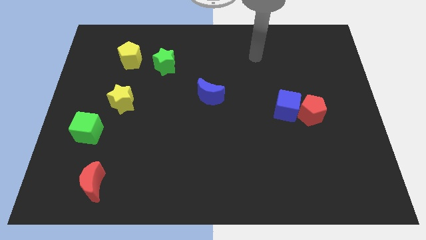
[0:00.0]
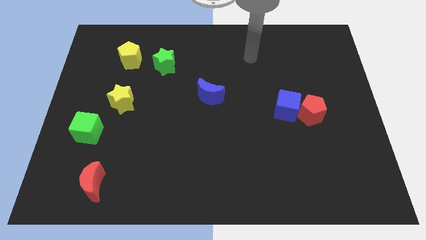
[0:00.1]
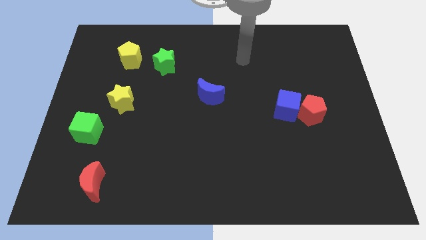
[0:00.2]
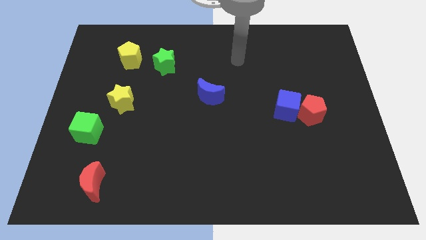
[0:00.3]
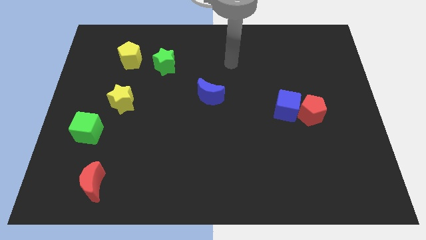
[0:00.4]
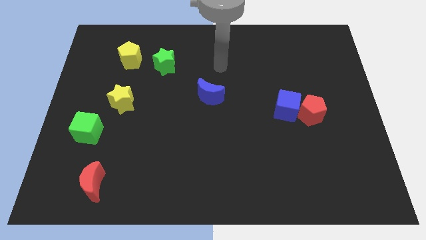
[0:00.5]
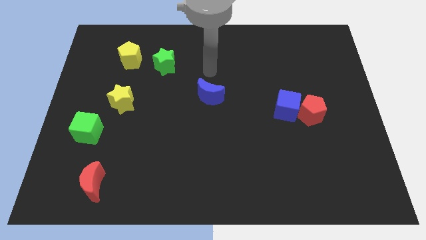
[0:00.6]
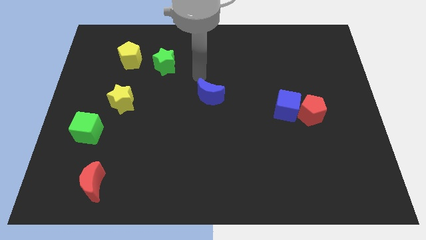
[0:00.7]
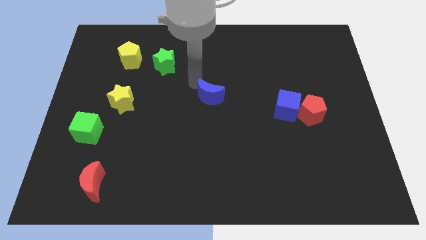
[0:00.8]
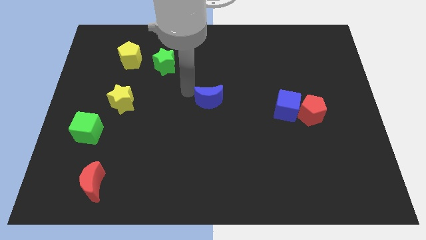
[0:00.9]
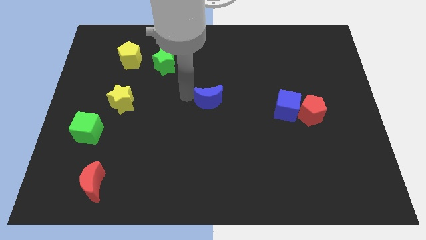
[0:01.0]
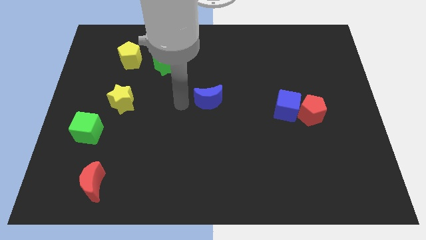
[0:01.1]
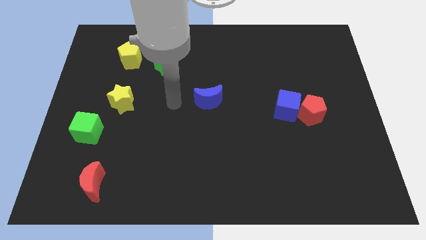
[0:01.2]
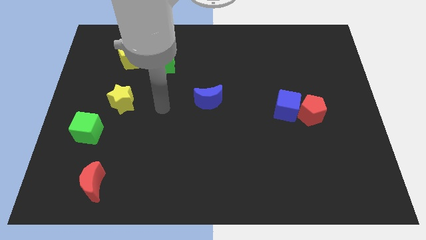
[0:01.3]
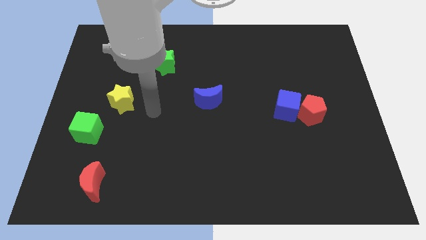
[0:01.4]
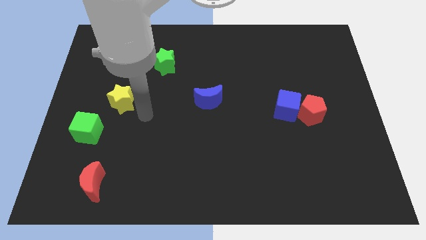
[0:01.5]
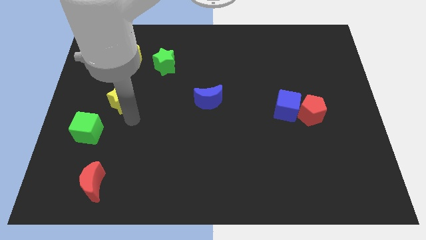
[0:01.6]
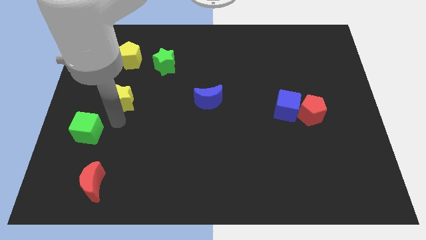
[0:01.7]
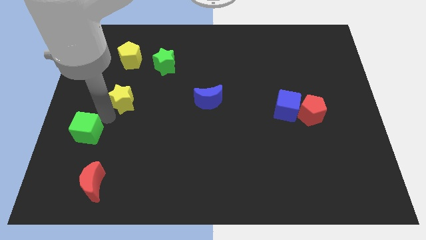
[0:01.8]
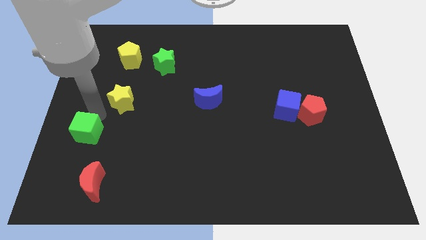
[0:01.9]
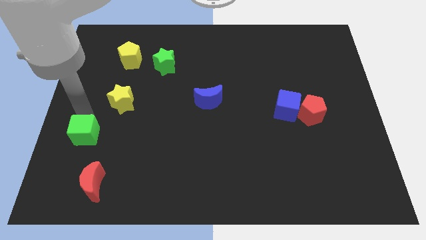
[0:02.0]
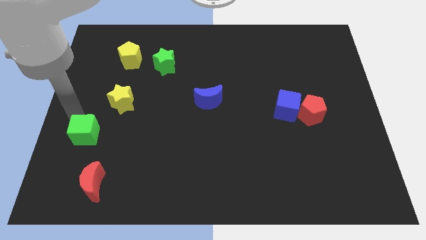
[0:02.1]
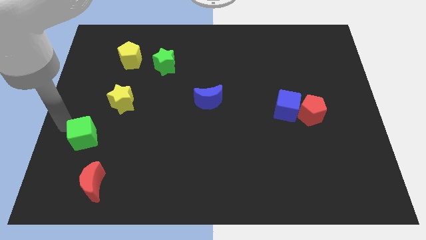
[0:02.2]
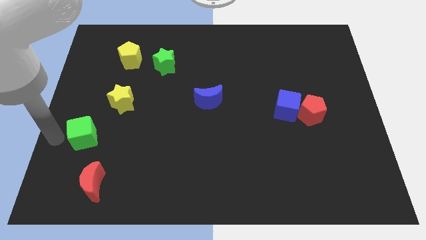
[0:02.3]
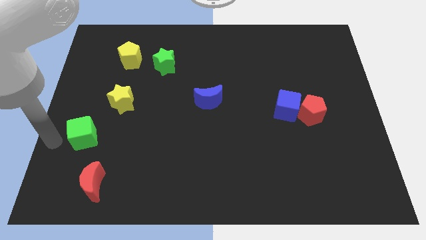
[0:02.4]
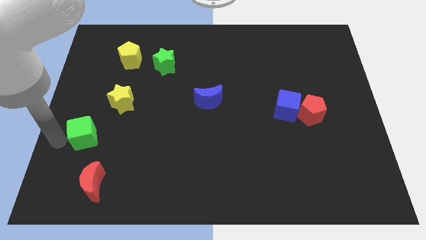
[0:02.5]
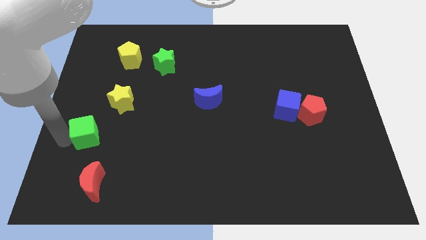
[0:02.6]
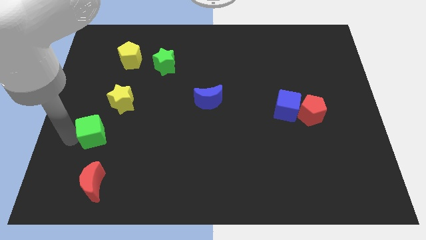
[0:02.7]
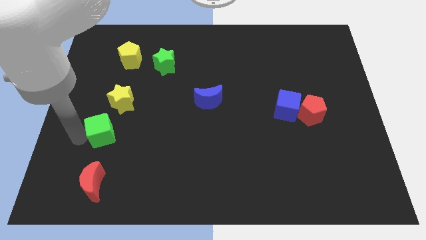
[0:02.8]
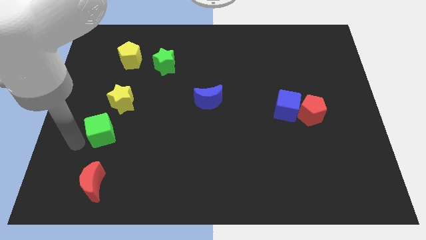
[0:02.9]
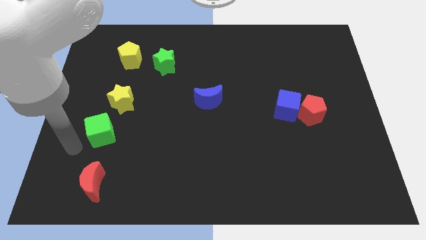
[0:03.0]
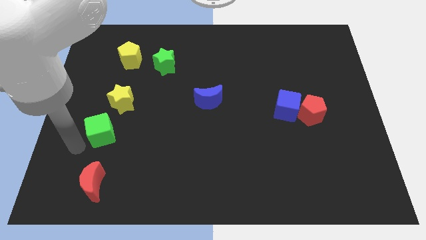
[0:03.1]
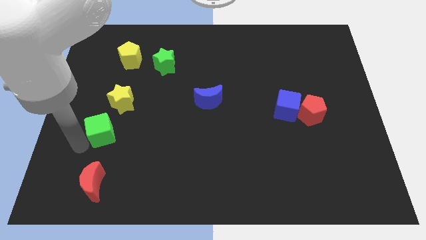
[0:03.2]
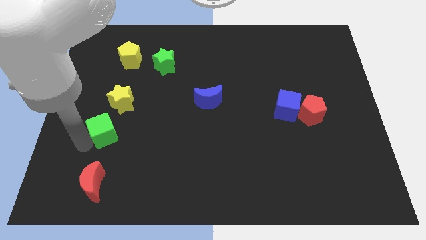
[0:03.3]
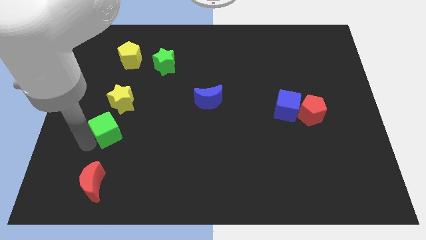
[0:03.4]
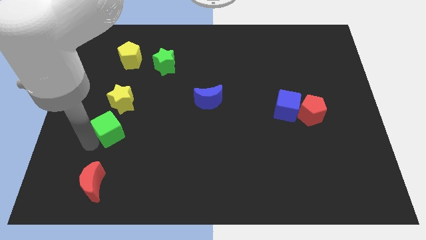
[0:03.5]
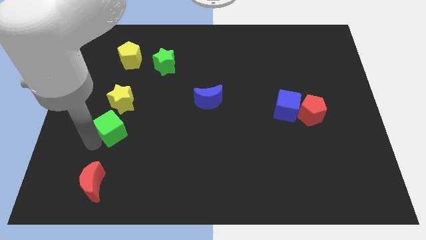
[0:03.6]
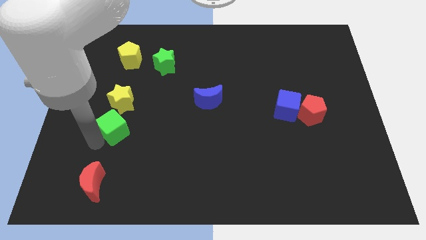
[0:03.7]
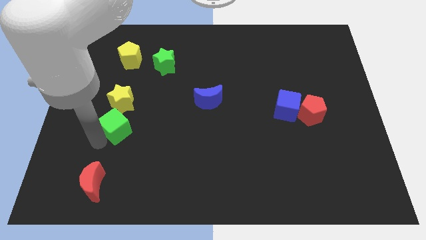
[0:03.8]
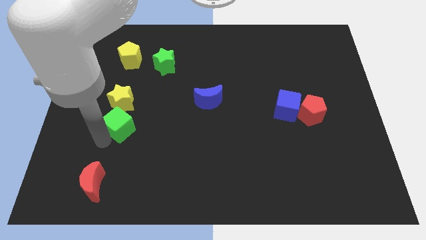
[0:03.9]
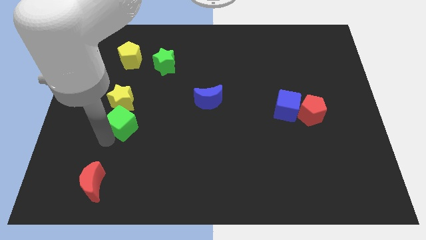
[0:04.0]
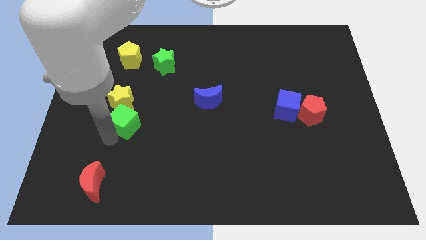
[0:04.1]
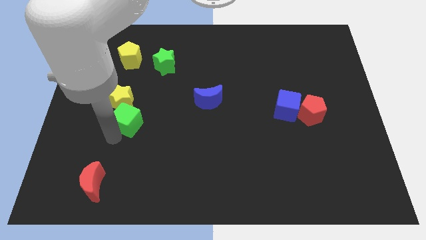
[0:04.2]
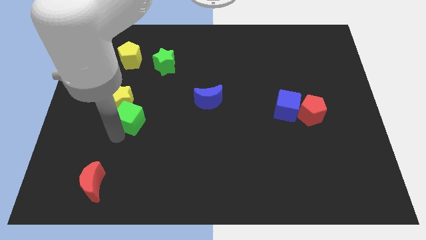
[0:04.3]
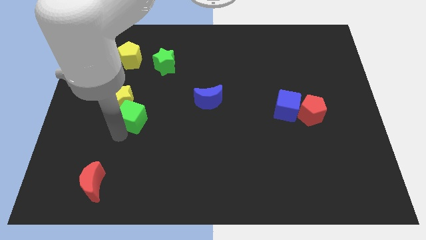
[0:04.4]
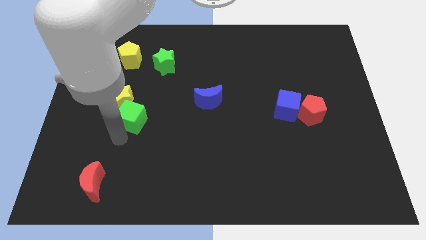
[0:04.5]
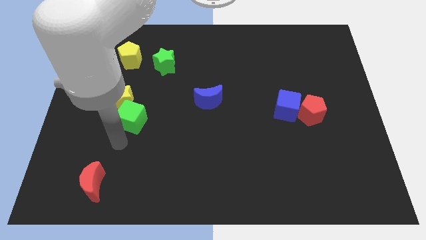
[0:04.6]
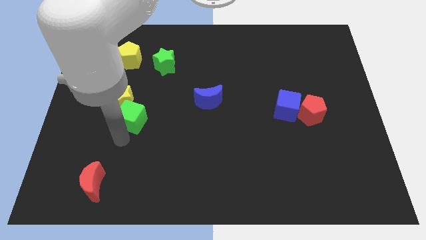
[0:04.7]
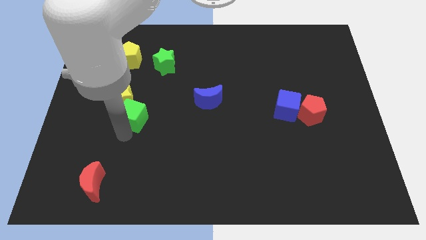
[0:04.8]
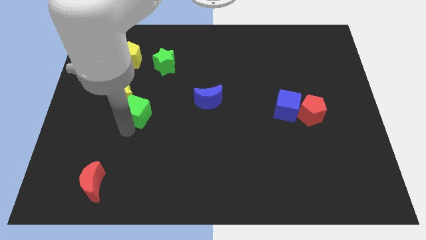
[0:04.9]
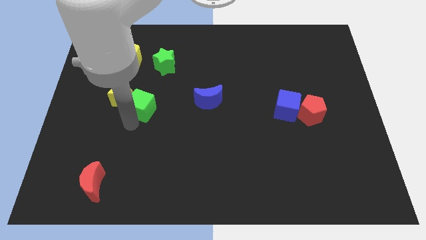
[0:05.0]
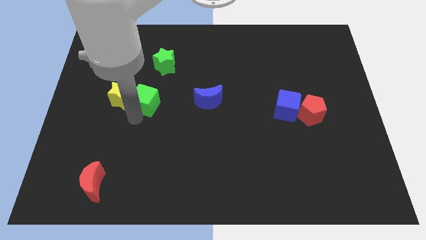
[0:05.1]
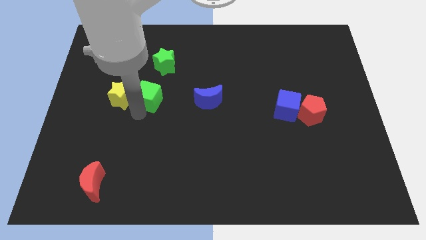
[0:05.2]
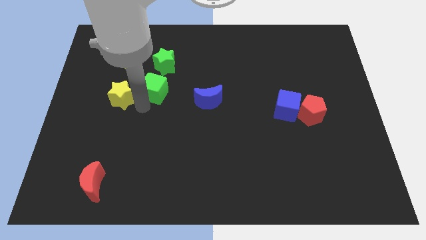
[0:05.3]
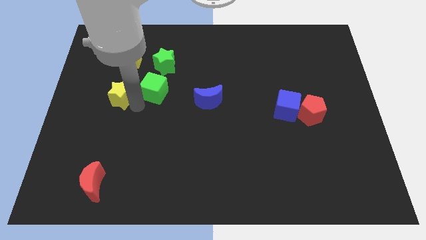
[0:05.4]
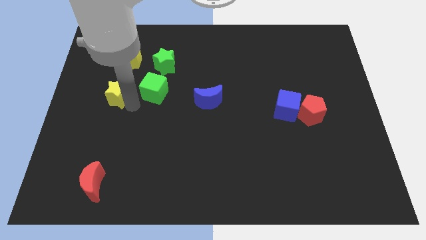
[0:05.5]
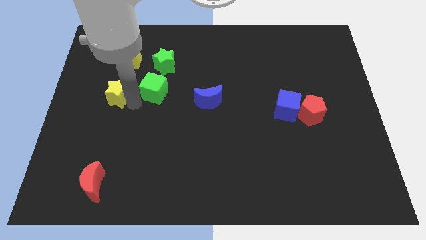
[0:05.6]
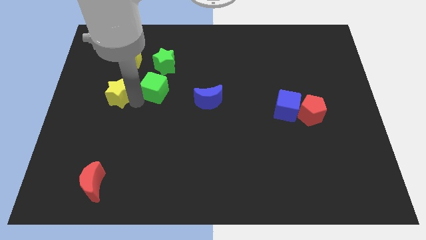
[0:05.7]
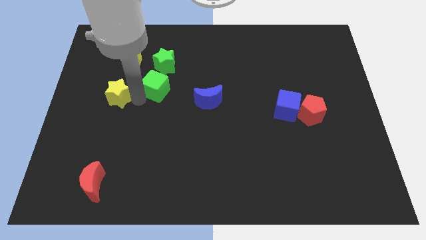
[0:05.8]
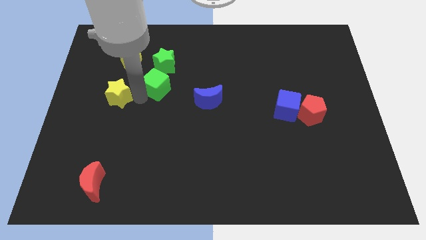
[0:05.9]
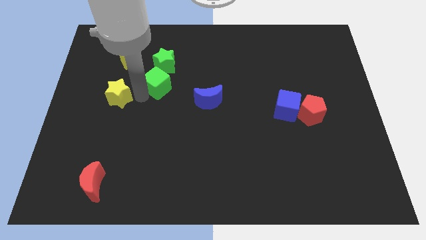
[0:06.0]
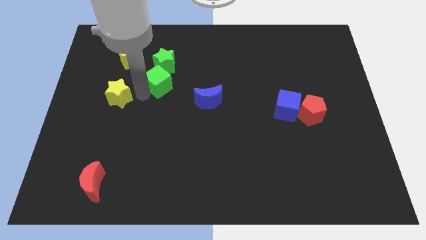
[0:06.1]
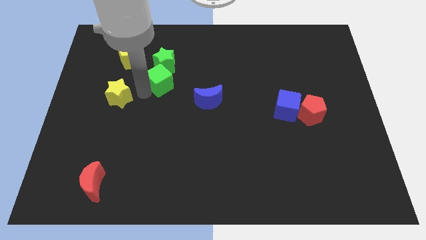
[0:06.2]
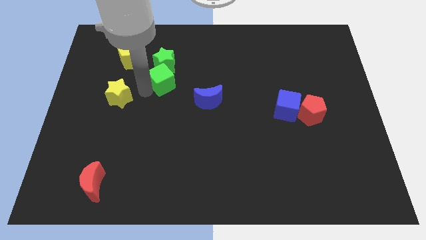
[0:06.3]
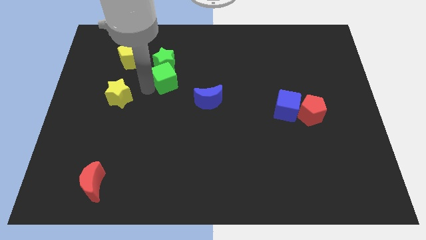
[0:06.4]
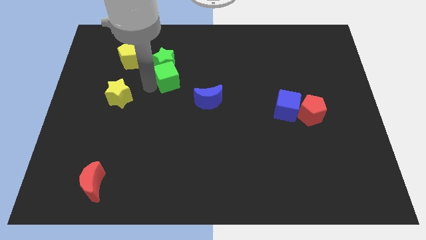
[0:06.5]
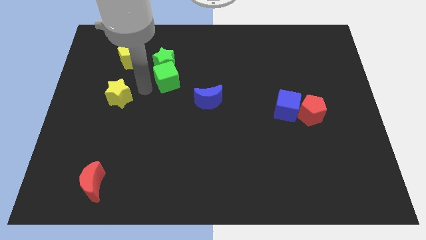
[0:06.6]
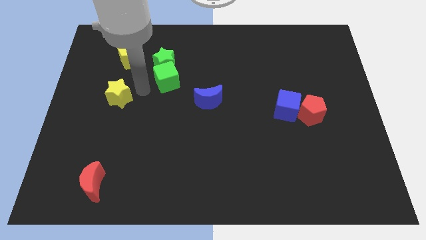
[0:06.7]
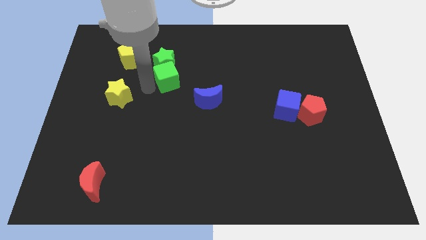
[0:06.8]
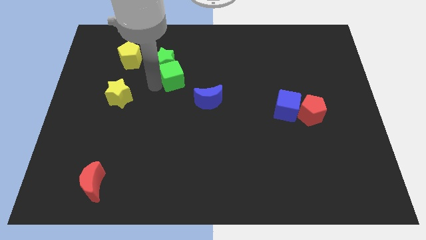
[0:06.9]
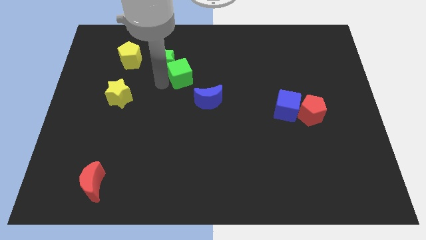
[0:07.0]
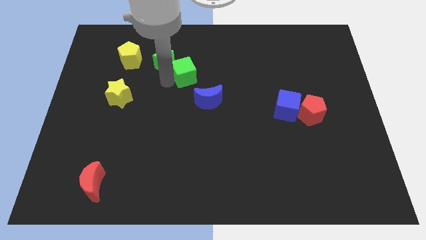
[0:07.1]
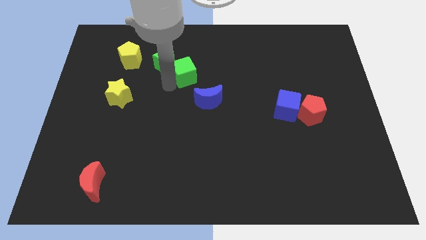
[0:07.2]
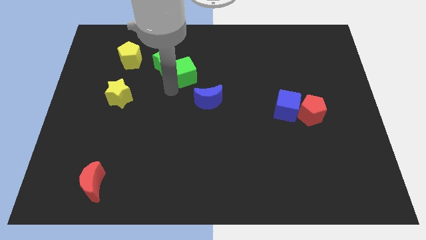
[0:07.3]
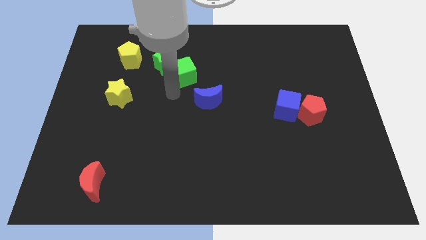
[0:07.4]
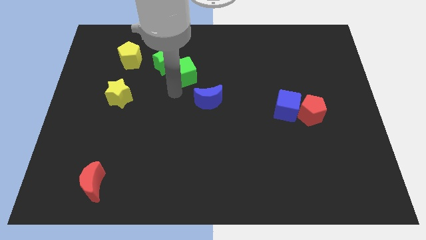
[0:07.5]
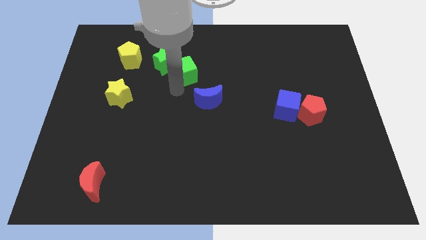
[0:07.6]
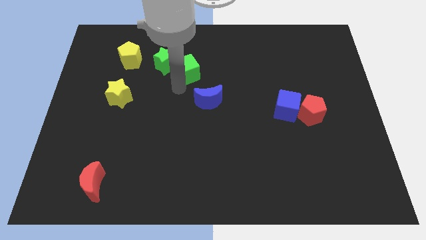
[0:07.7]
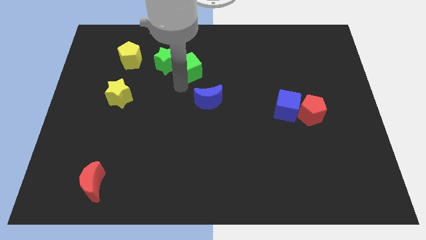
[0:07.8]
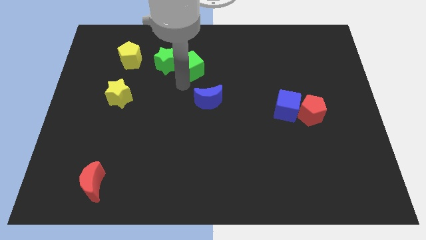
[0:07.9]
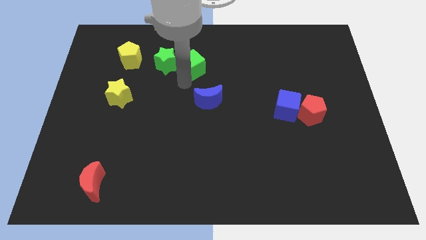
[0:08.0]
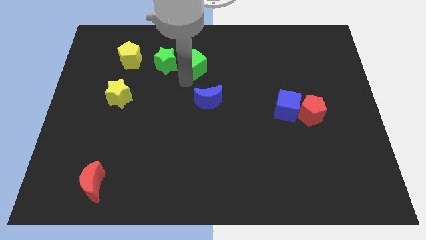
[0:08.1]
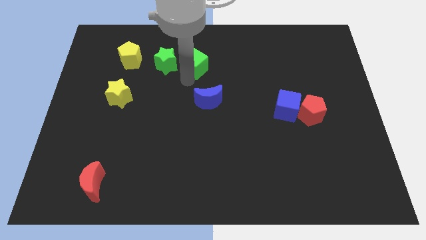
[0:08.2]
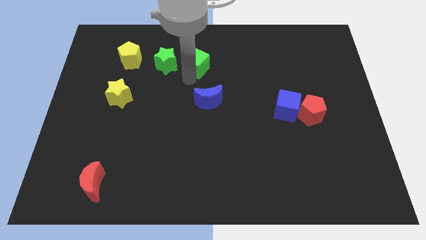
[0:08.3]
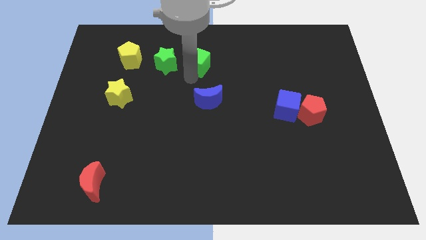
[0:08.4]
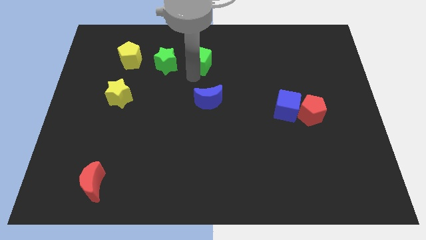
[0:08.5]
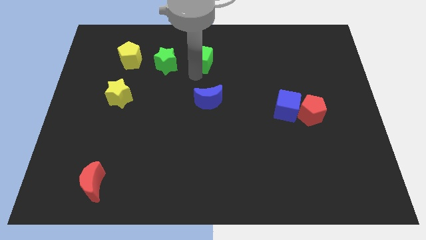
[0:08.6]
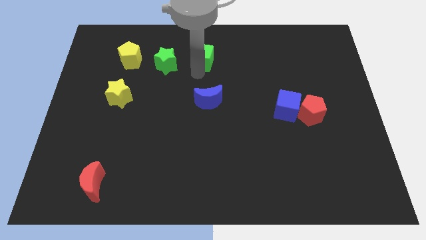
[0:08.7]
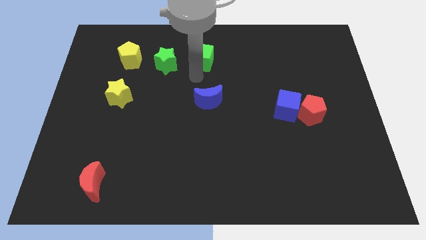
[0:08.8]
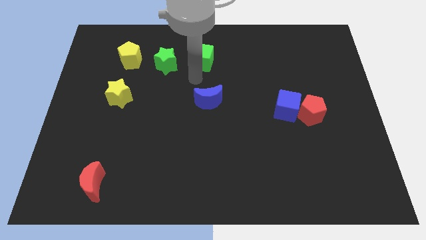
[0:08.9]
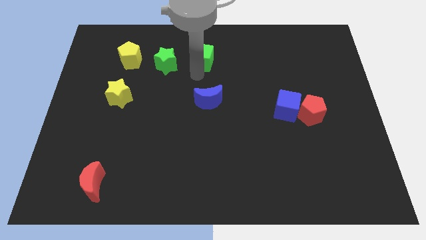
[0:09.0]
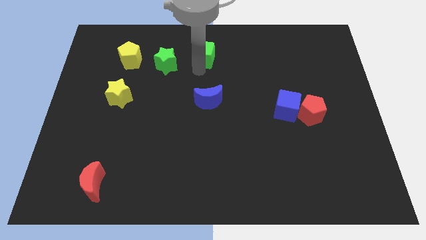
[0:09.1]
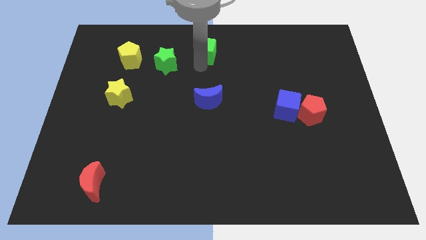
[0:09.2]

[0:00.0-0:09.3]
put the green cube to the top
